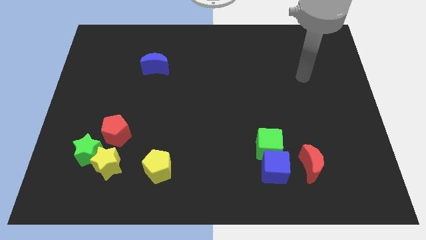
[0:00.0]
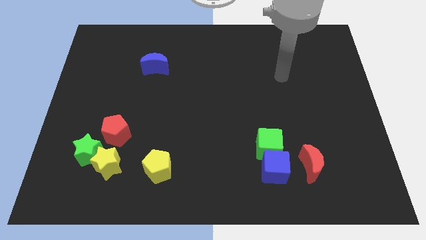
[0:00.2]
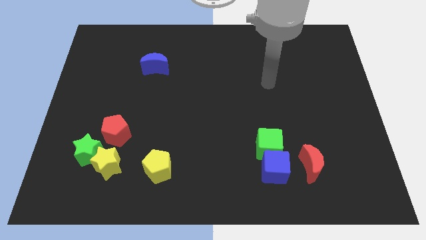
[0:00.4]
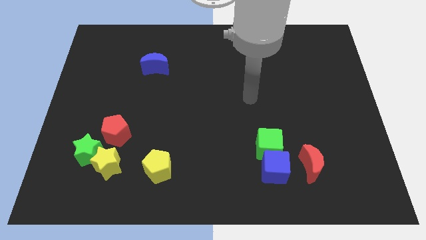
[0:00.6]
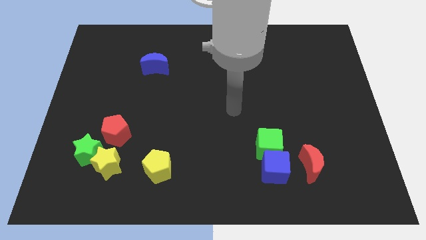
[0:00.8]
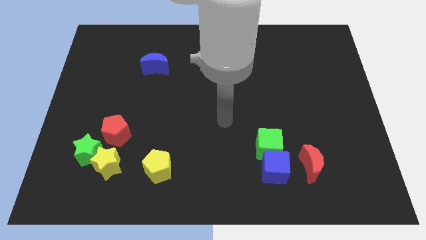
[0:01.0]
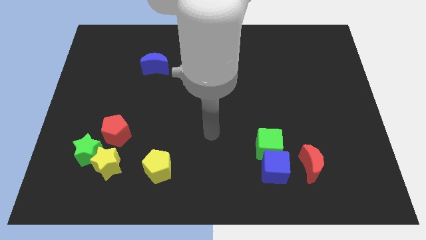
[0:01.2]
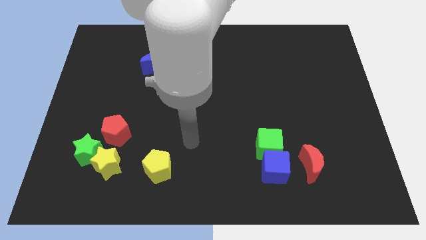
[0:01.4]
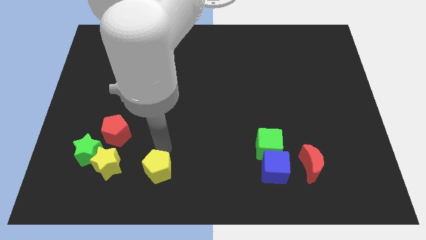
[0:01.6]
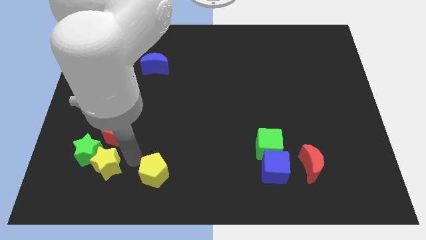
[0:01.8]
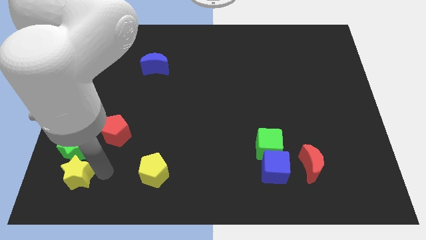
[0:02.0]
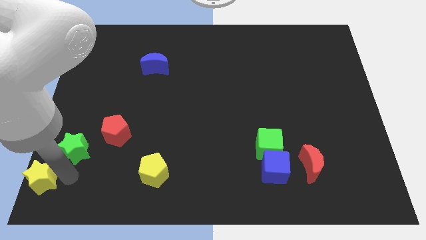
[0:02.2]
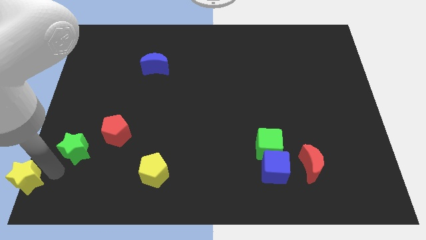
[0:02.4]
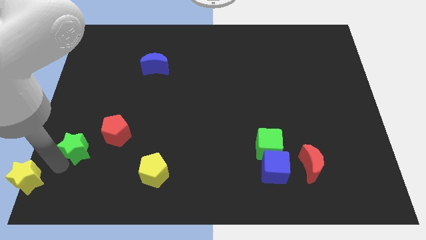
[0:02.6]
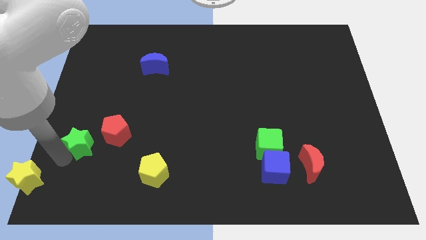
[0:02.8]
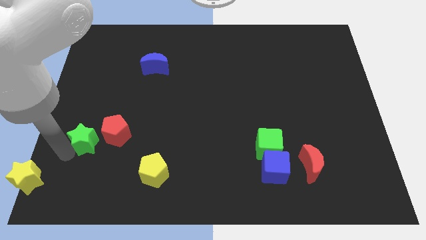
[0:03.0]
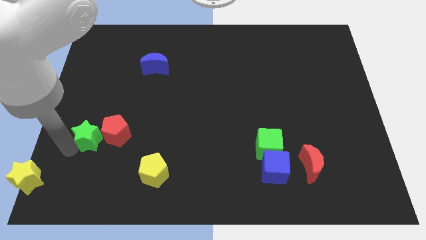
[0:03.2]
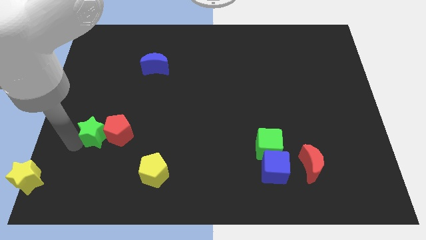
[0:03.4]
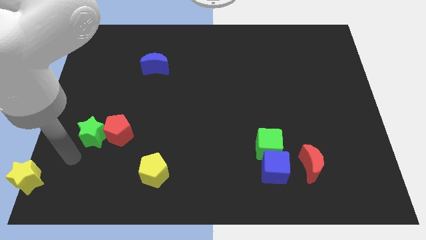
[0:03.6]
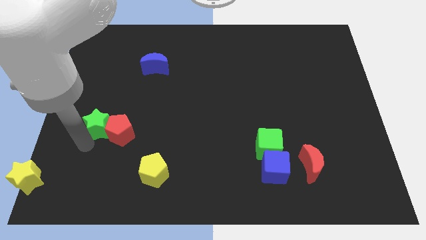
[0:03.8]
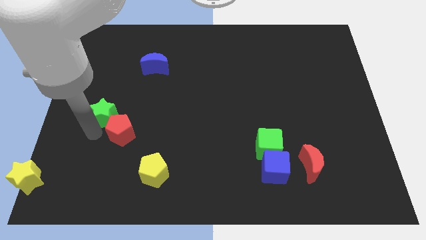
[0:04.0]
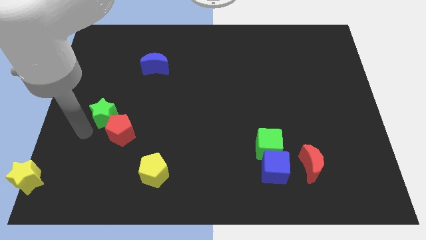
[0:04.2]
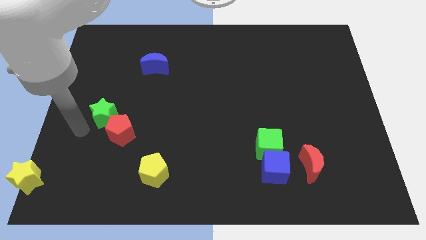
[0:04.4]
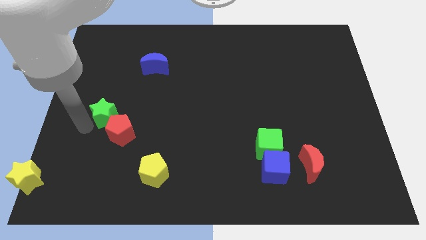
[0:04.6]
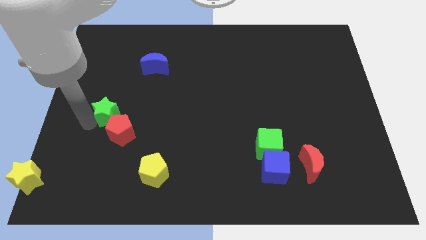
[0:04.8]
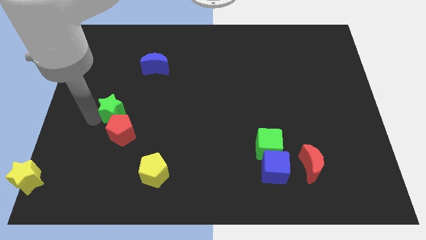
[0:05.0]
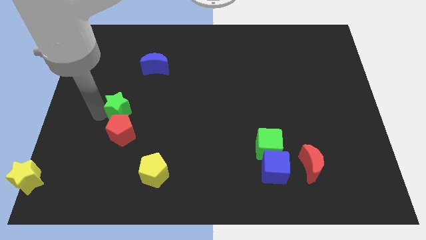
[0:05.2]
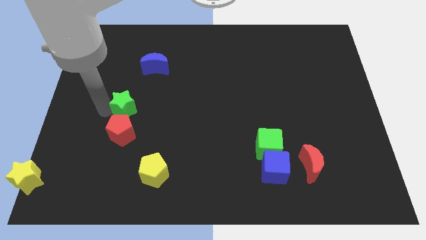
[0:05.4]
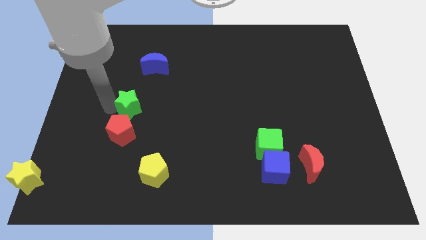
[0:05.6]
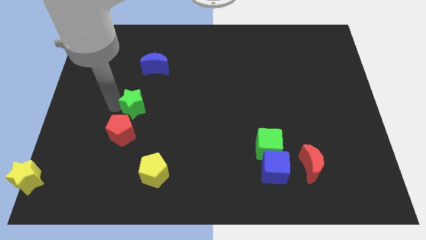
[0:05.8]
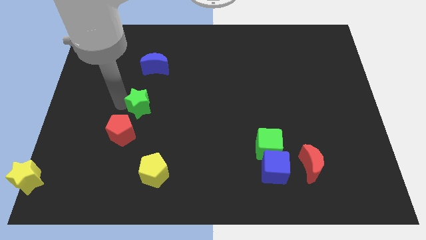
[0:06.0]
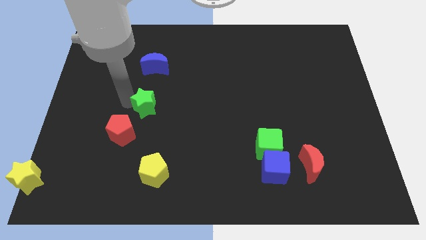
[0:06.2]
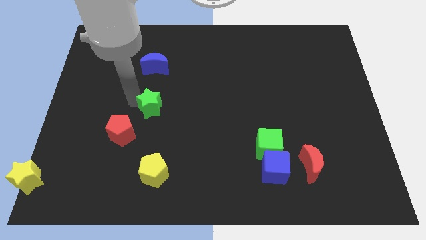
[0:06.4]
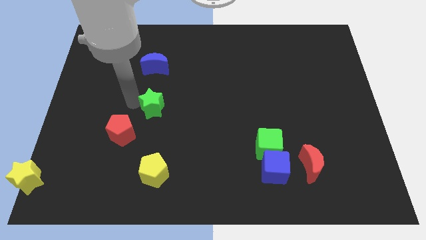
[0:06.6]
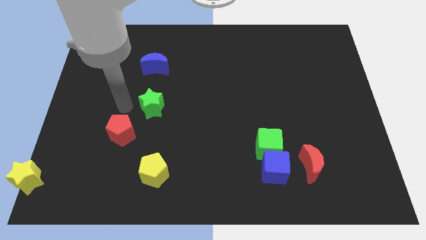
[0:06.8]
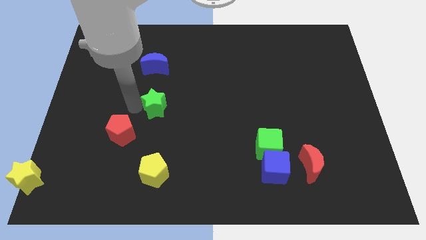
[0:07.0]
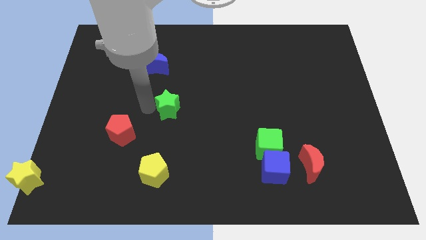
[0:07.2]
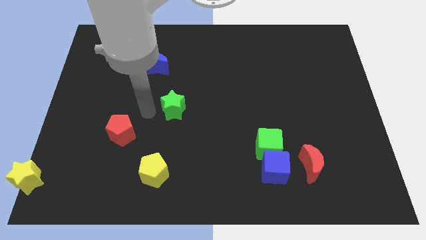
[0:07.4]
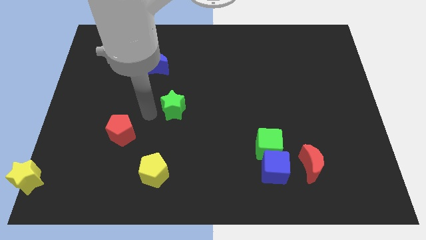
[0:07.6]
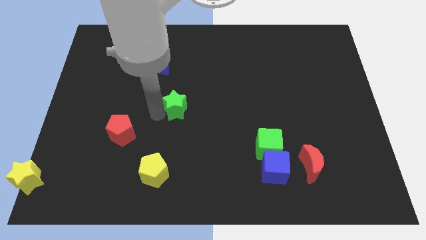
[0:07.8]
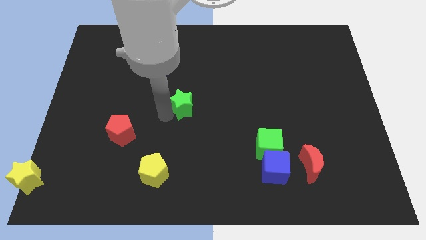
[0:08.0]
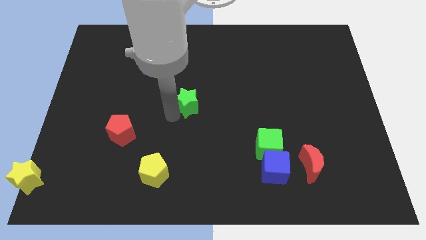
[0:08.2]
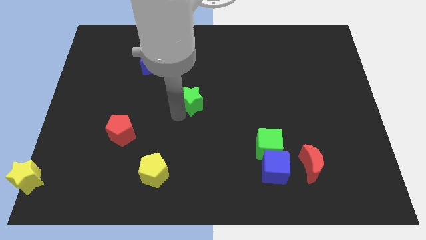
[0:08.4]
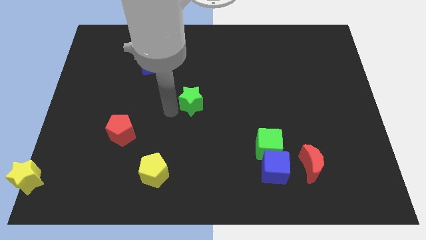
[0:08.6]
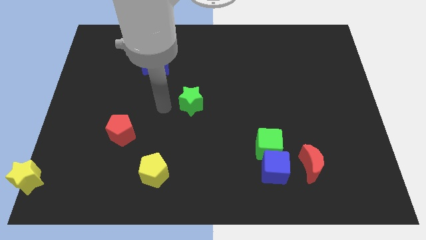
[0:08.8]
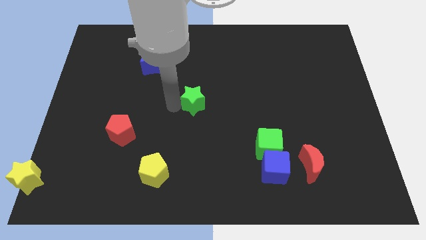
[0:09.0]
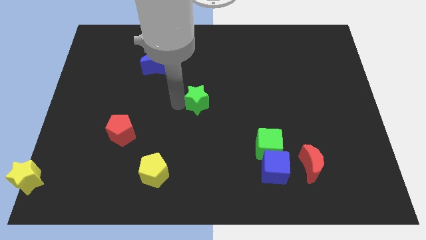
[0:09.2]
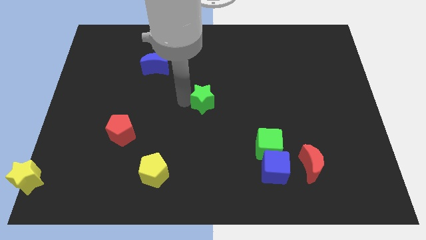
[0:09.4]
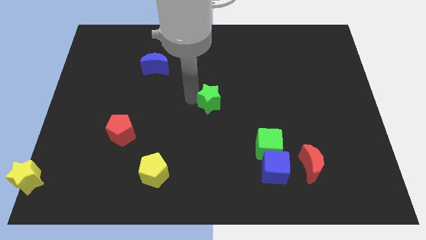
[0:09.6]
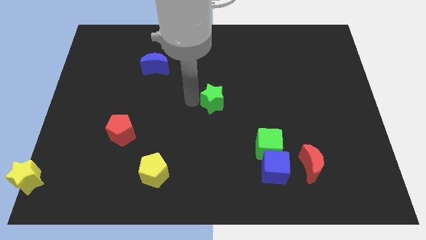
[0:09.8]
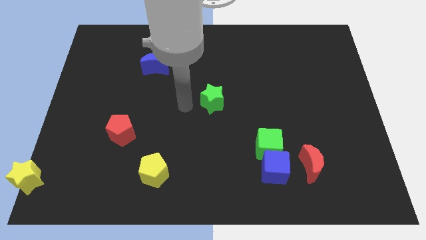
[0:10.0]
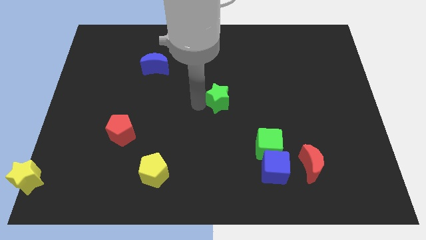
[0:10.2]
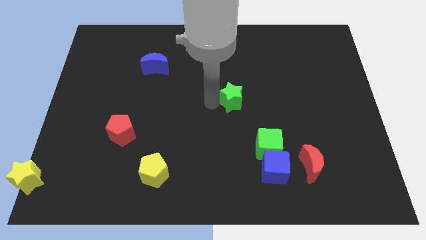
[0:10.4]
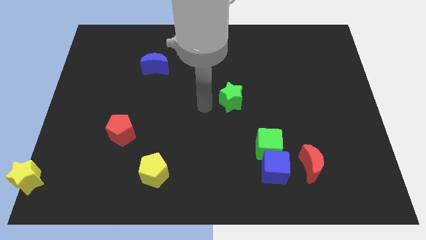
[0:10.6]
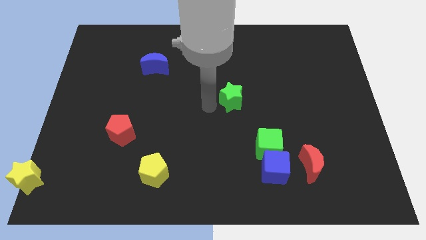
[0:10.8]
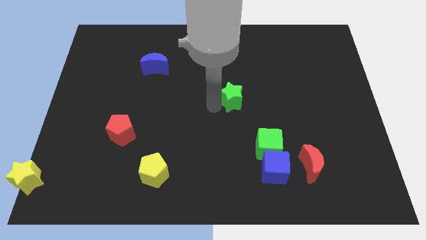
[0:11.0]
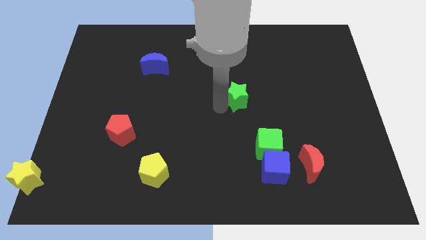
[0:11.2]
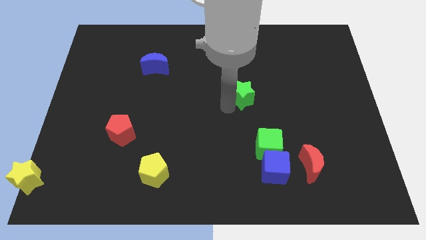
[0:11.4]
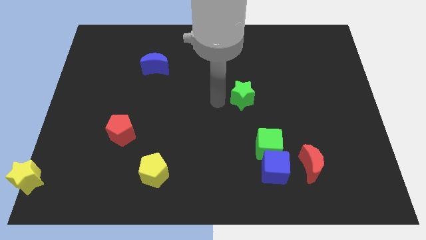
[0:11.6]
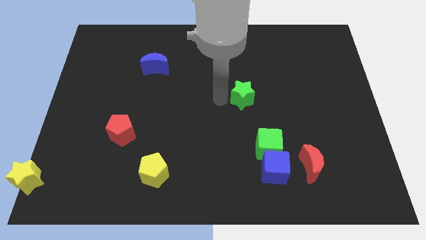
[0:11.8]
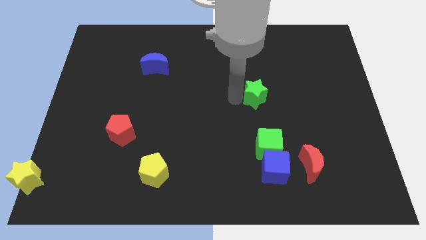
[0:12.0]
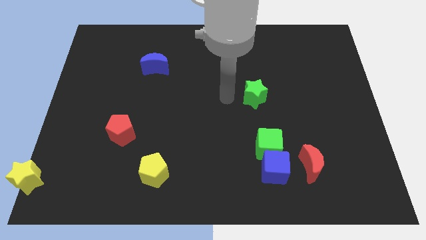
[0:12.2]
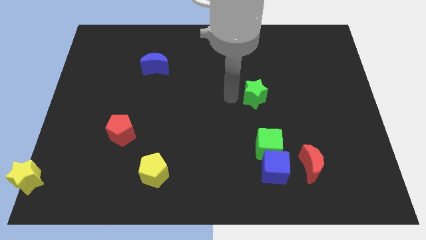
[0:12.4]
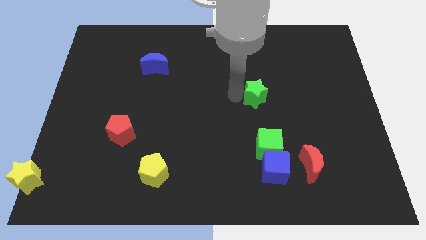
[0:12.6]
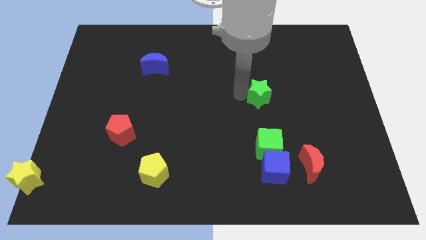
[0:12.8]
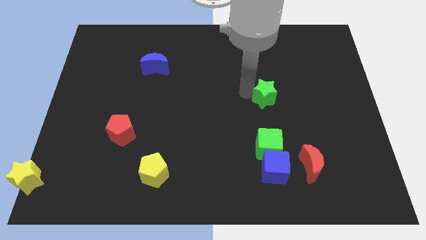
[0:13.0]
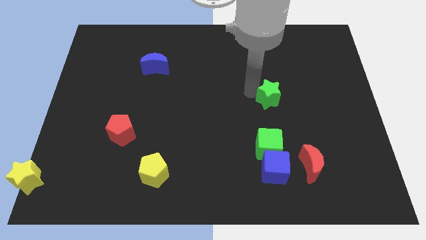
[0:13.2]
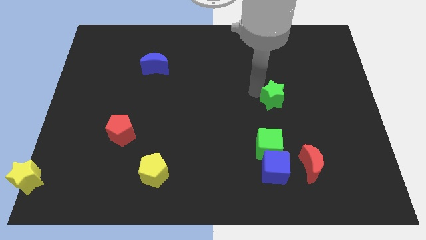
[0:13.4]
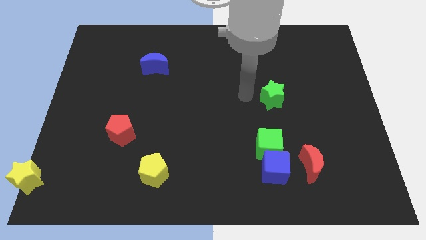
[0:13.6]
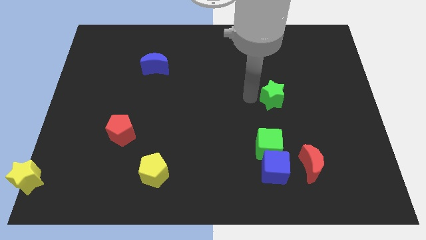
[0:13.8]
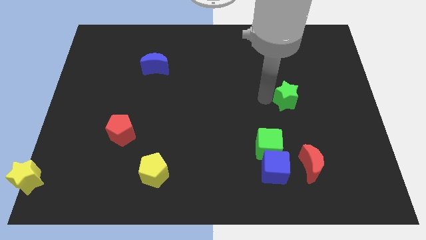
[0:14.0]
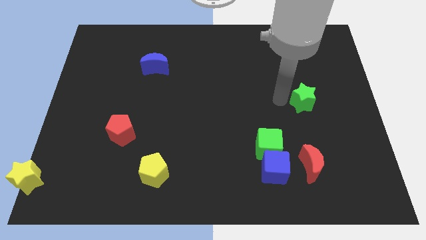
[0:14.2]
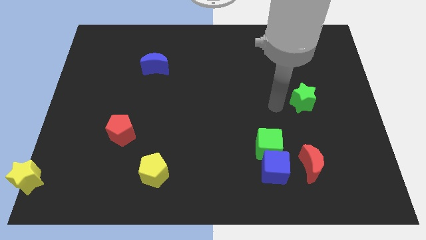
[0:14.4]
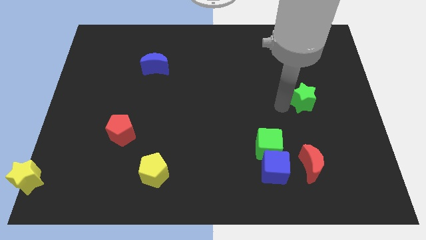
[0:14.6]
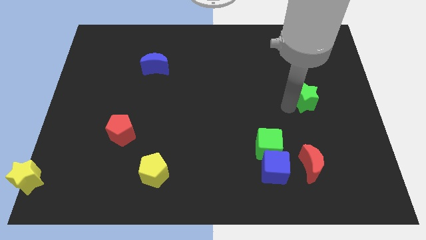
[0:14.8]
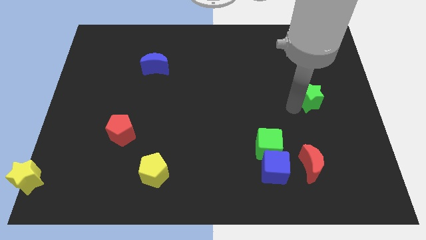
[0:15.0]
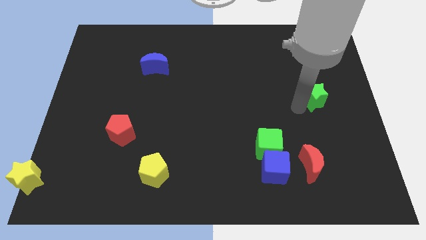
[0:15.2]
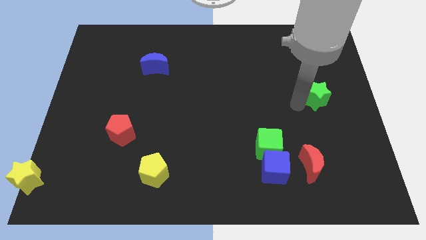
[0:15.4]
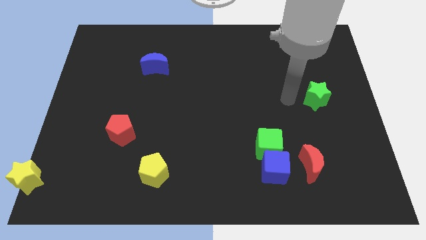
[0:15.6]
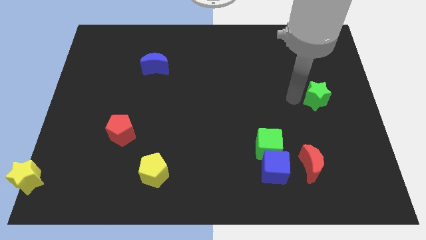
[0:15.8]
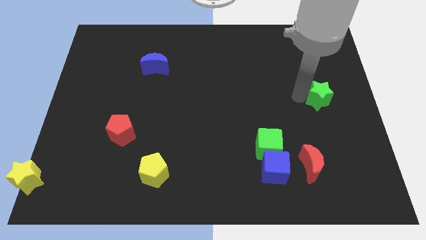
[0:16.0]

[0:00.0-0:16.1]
put the green star to the right side
